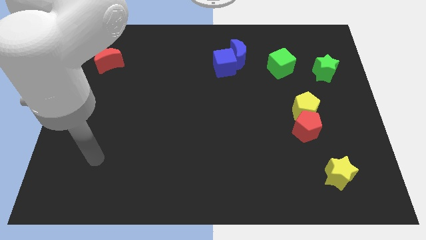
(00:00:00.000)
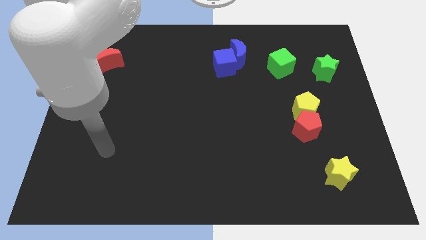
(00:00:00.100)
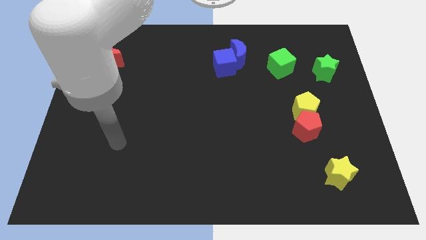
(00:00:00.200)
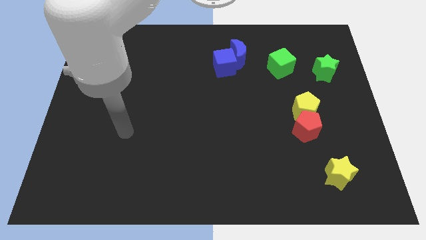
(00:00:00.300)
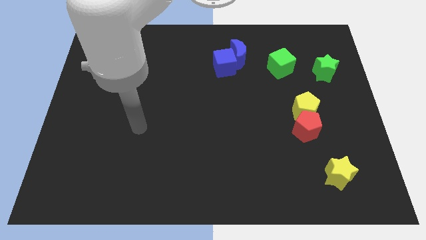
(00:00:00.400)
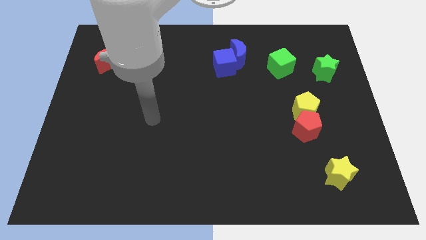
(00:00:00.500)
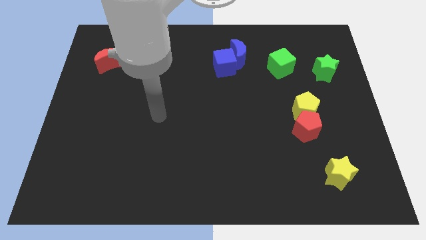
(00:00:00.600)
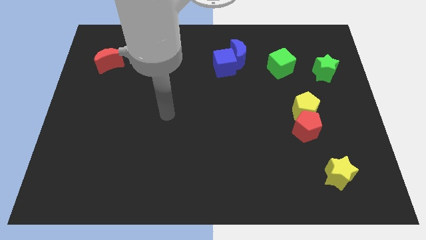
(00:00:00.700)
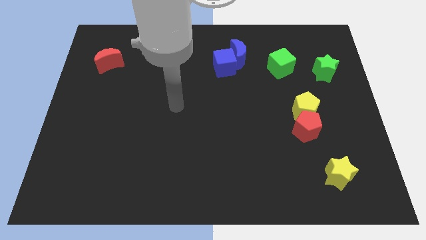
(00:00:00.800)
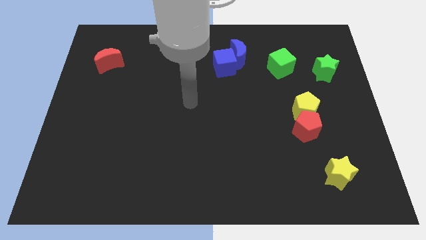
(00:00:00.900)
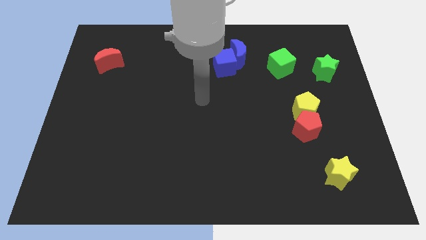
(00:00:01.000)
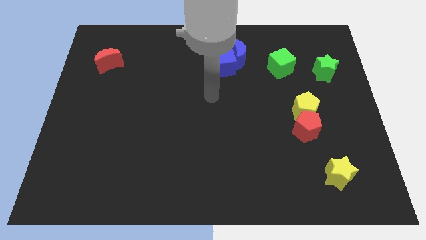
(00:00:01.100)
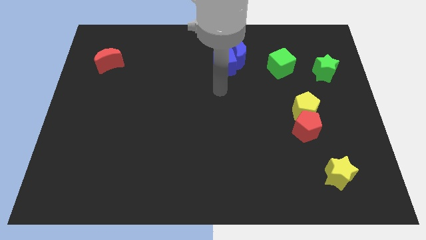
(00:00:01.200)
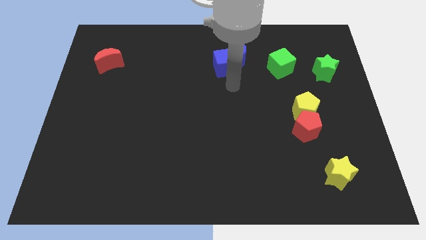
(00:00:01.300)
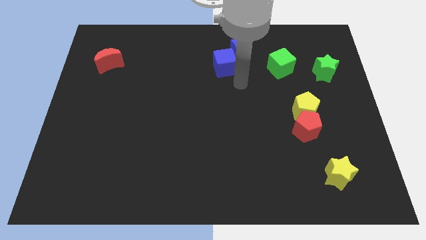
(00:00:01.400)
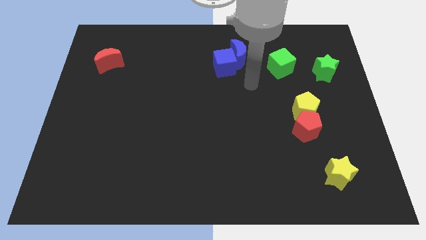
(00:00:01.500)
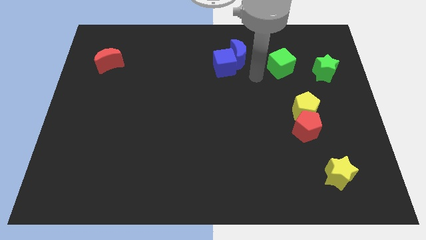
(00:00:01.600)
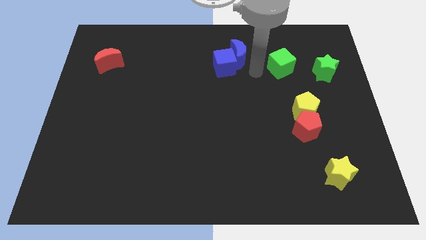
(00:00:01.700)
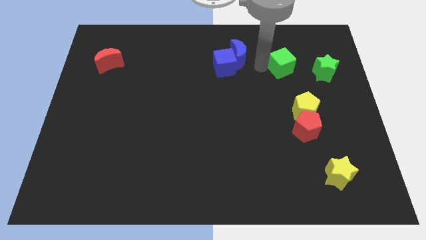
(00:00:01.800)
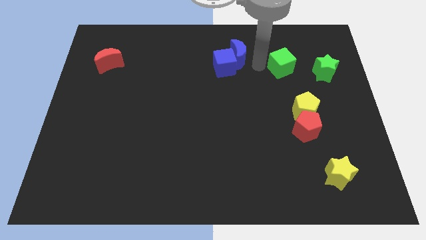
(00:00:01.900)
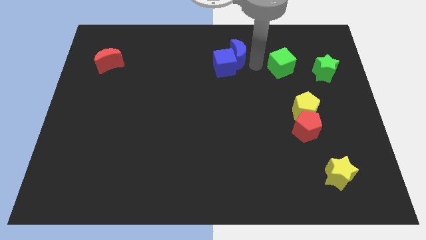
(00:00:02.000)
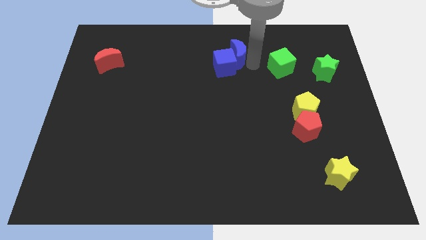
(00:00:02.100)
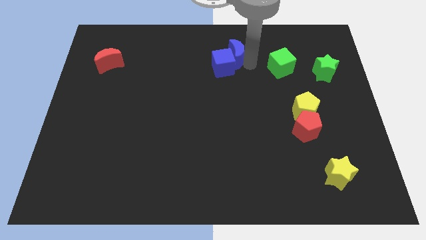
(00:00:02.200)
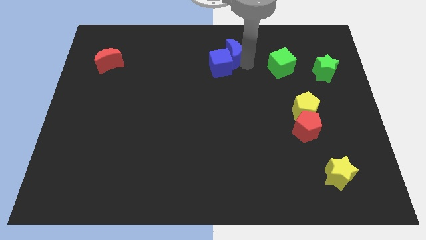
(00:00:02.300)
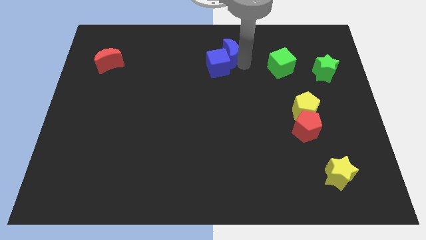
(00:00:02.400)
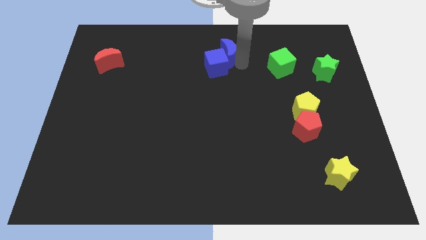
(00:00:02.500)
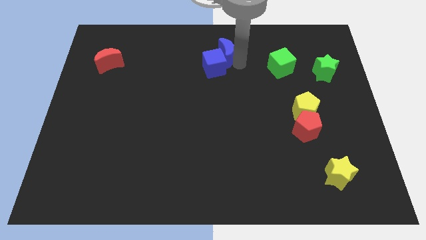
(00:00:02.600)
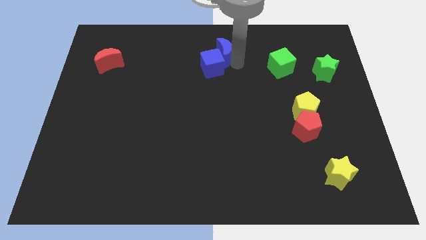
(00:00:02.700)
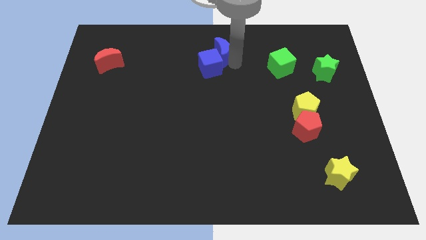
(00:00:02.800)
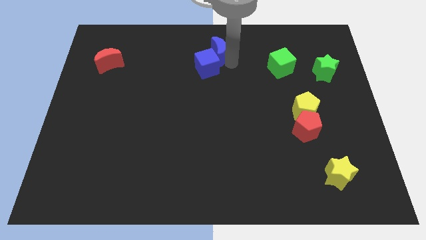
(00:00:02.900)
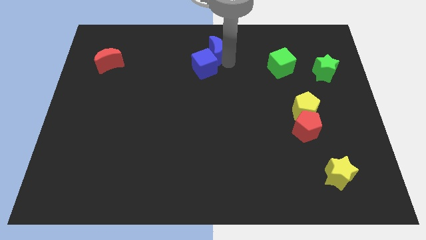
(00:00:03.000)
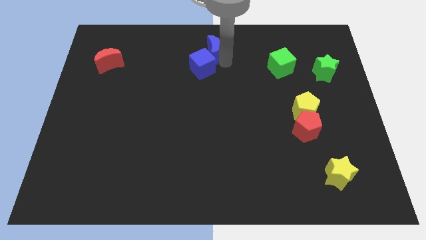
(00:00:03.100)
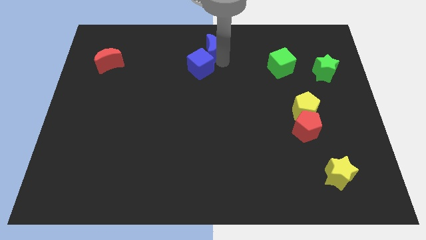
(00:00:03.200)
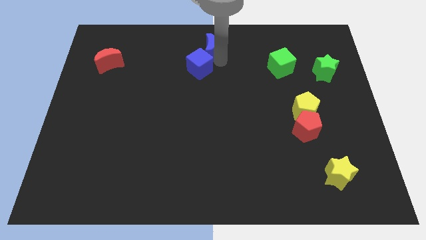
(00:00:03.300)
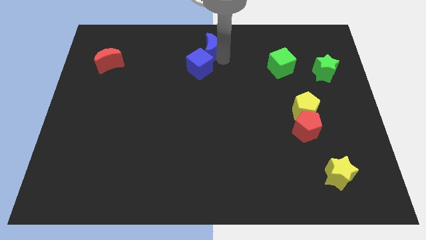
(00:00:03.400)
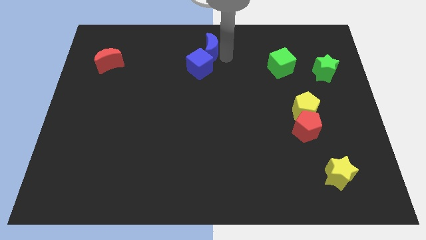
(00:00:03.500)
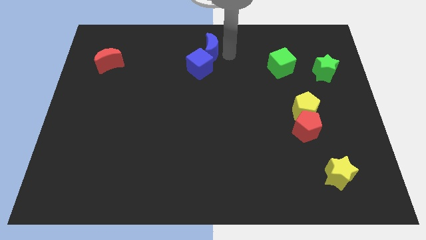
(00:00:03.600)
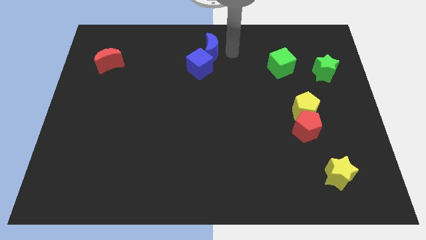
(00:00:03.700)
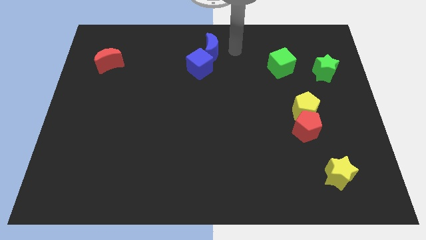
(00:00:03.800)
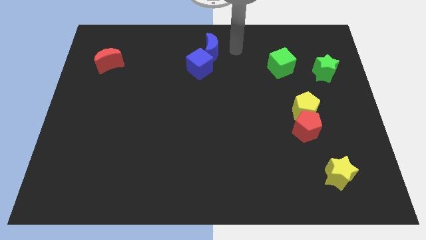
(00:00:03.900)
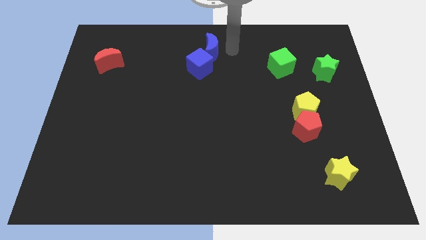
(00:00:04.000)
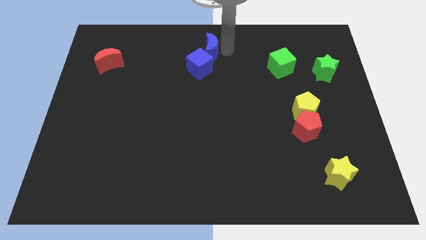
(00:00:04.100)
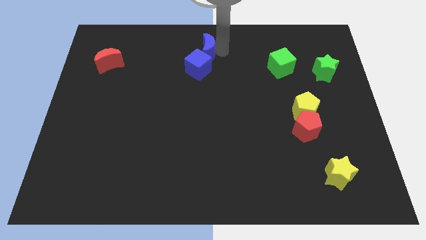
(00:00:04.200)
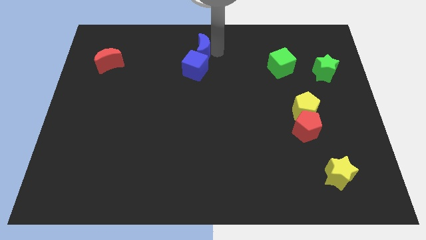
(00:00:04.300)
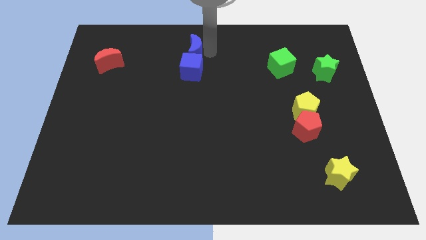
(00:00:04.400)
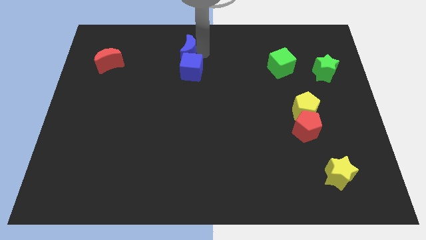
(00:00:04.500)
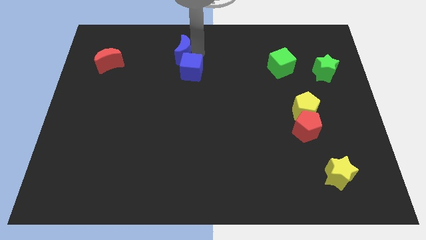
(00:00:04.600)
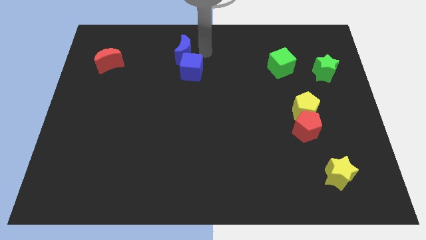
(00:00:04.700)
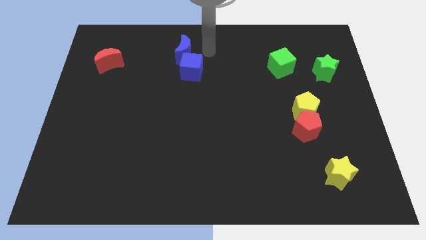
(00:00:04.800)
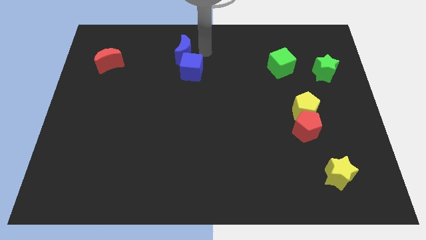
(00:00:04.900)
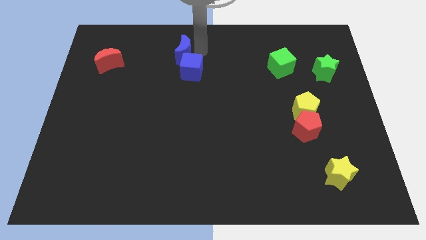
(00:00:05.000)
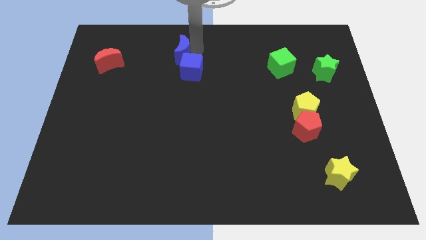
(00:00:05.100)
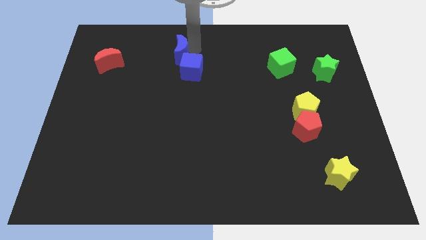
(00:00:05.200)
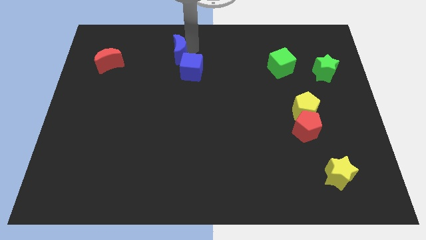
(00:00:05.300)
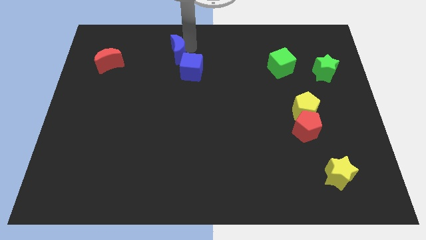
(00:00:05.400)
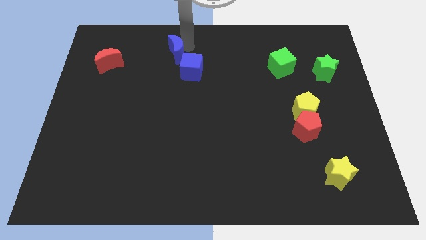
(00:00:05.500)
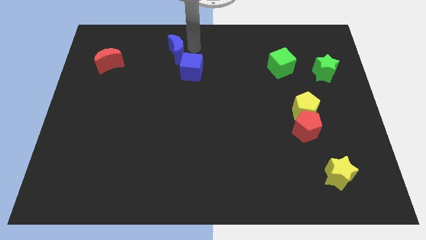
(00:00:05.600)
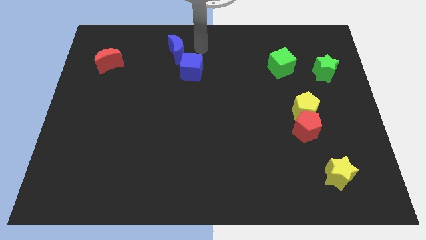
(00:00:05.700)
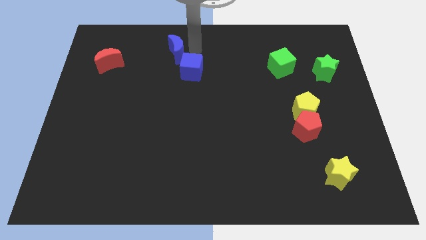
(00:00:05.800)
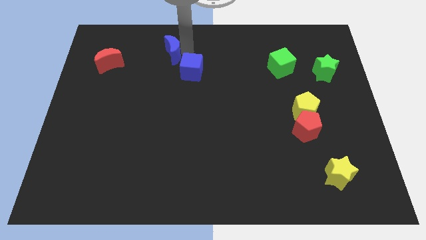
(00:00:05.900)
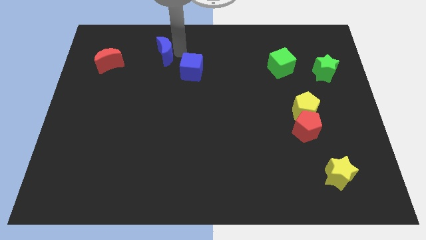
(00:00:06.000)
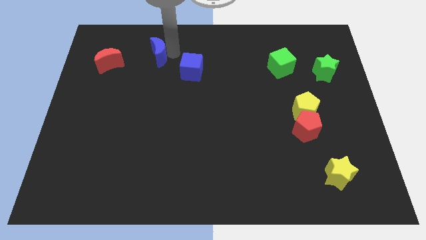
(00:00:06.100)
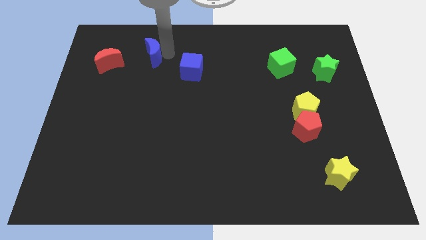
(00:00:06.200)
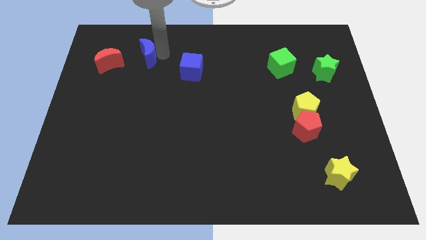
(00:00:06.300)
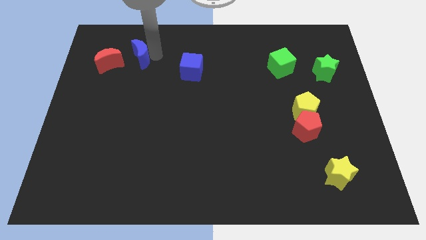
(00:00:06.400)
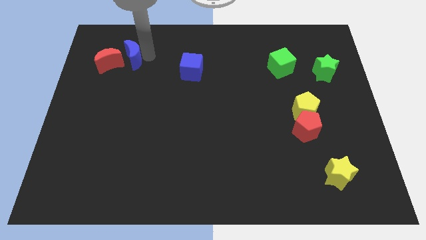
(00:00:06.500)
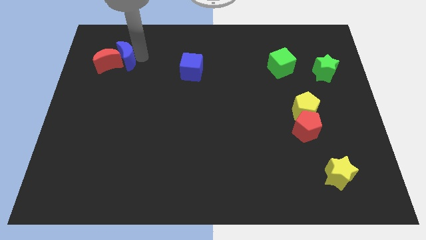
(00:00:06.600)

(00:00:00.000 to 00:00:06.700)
push the blue moon next to the red moon
